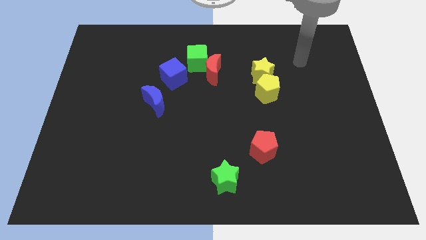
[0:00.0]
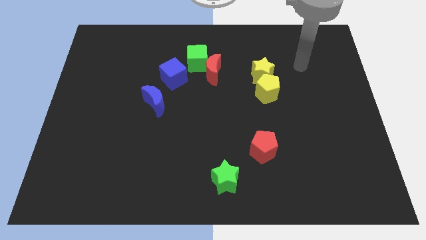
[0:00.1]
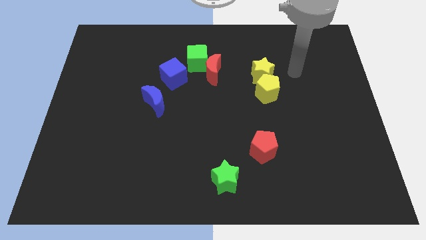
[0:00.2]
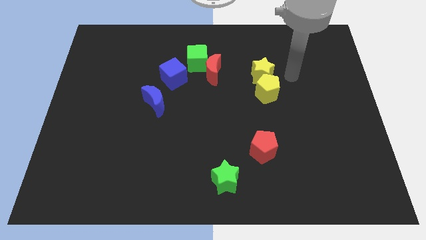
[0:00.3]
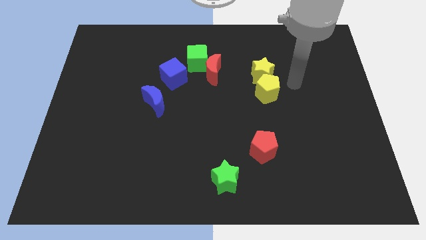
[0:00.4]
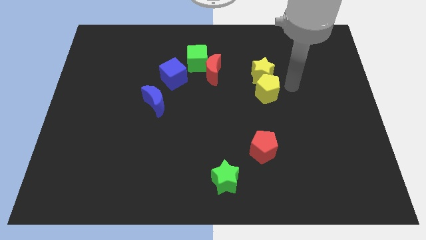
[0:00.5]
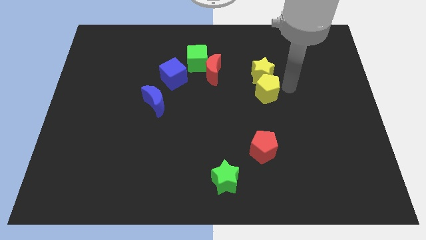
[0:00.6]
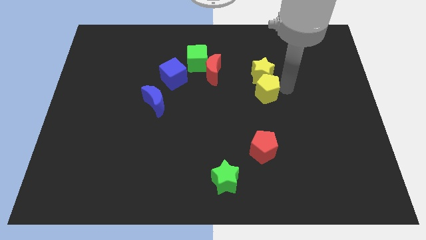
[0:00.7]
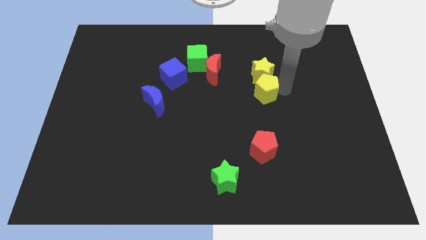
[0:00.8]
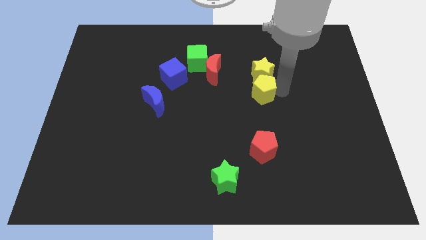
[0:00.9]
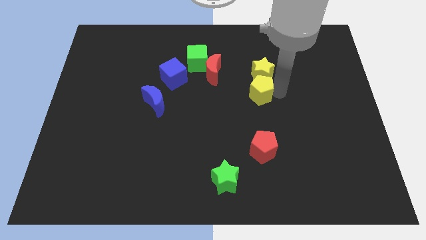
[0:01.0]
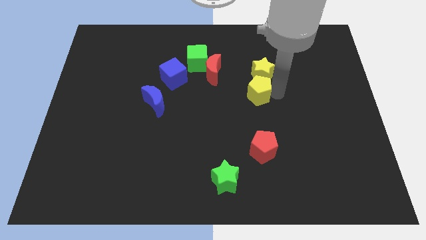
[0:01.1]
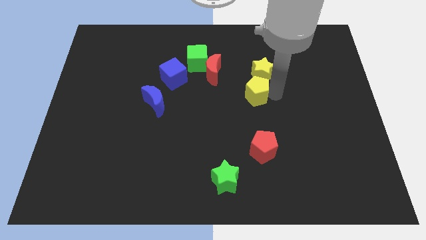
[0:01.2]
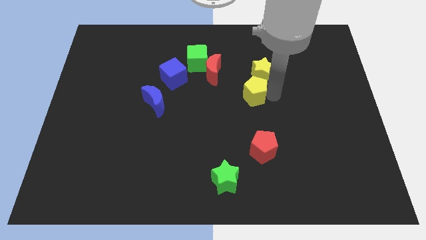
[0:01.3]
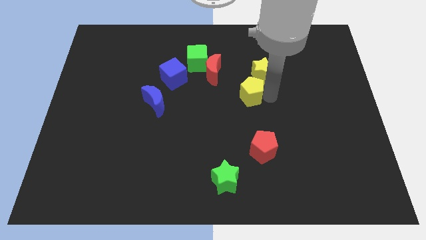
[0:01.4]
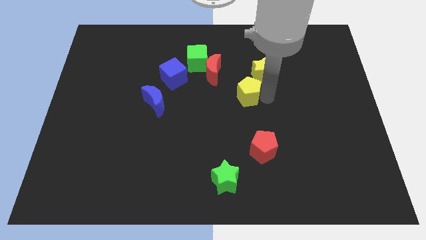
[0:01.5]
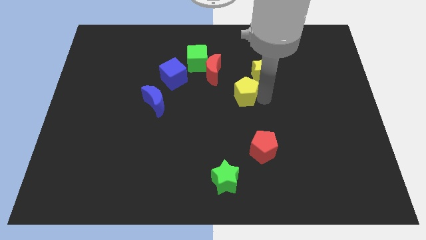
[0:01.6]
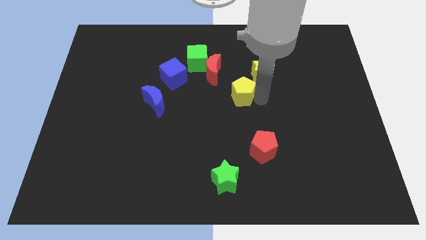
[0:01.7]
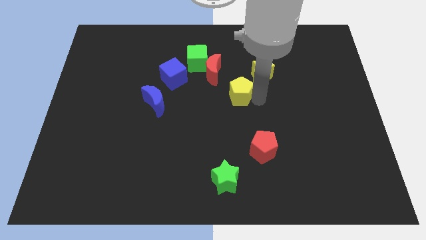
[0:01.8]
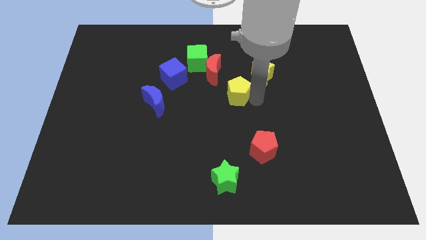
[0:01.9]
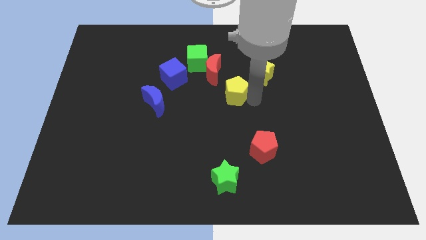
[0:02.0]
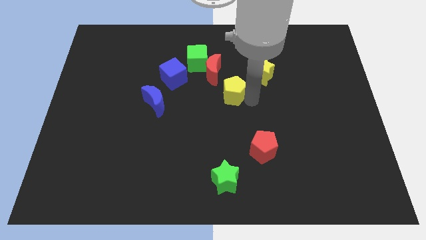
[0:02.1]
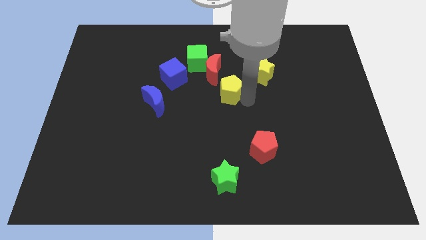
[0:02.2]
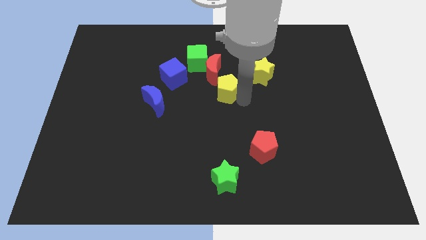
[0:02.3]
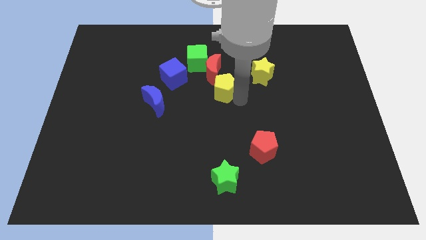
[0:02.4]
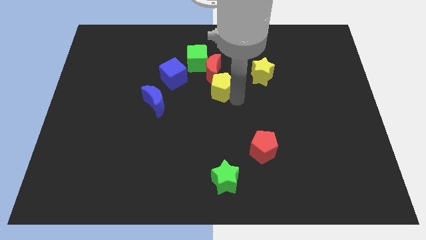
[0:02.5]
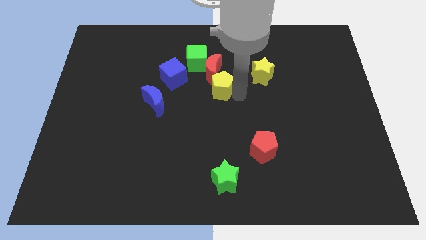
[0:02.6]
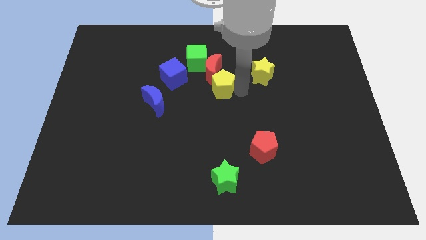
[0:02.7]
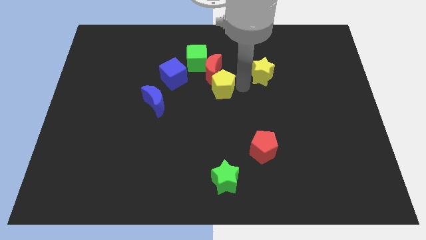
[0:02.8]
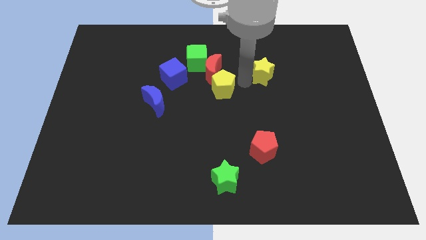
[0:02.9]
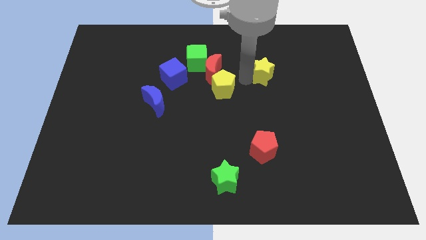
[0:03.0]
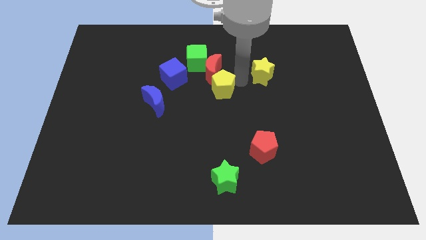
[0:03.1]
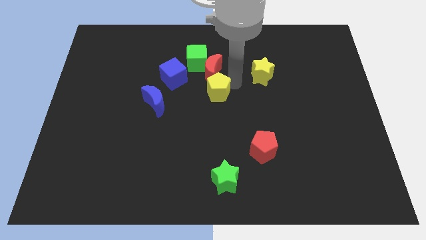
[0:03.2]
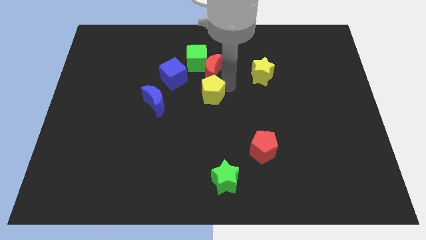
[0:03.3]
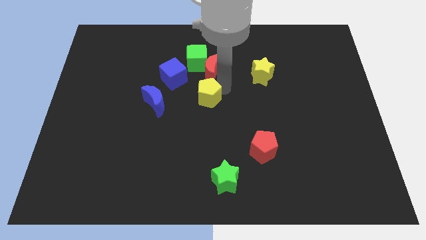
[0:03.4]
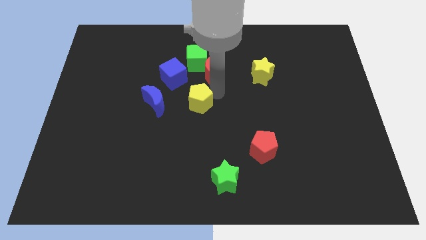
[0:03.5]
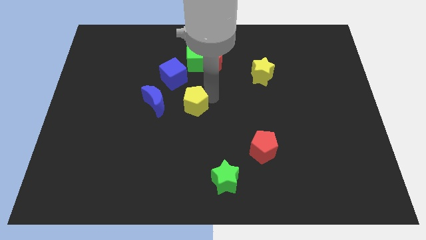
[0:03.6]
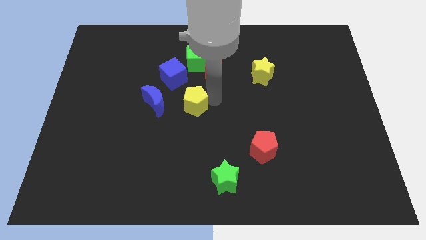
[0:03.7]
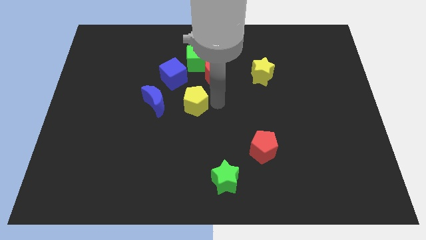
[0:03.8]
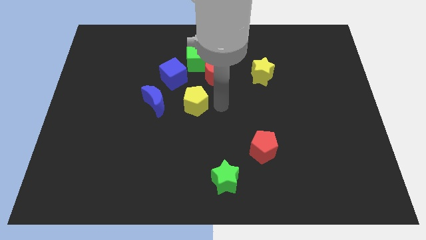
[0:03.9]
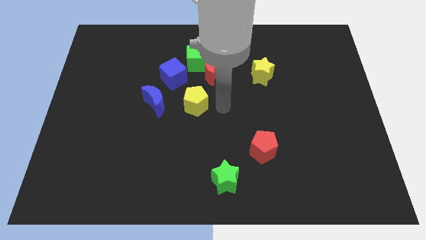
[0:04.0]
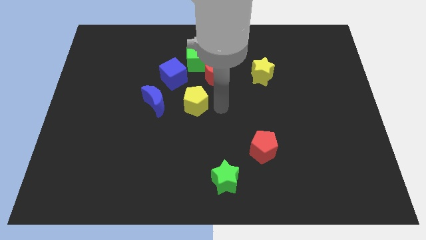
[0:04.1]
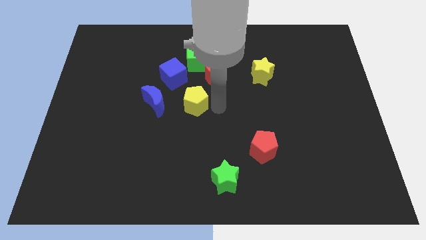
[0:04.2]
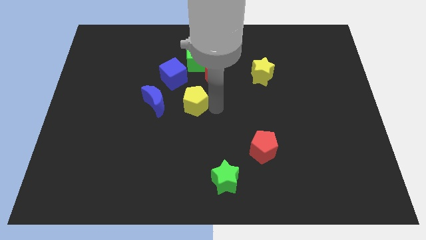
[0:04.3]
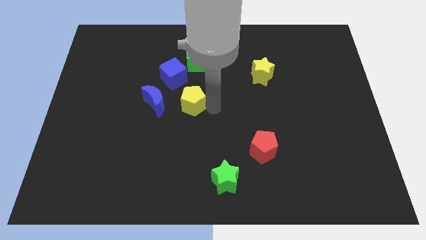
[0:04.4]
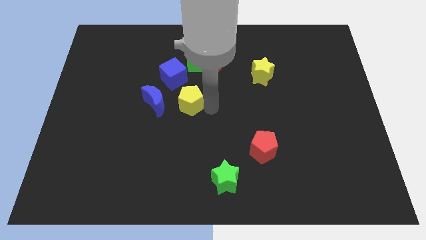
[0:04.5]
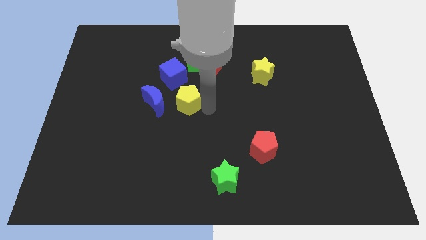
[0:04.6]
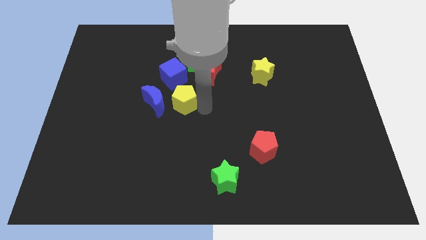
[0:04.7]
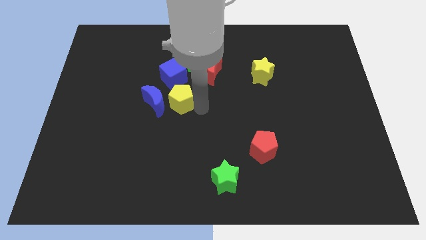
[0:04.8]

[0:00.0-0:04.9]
push the yellow pentagon towards the blue moon

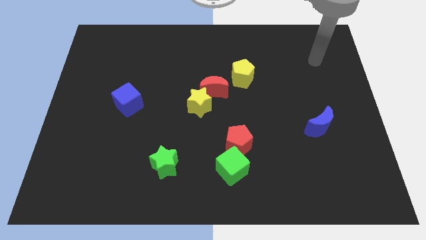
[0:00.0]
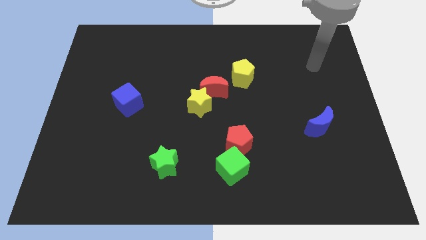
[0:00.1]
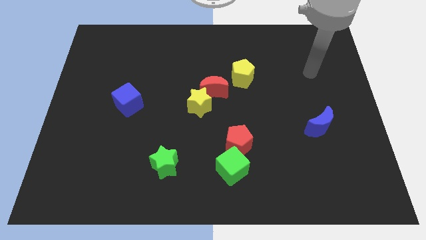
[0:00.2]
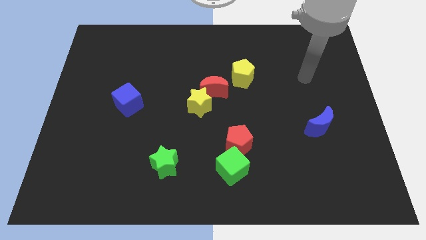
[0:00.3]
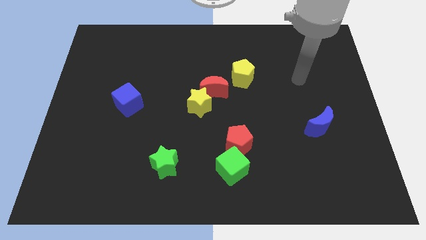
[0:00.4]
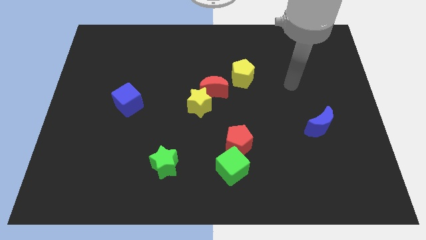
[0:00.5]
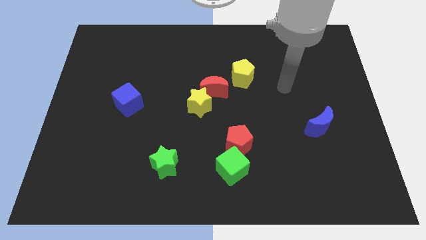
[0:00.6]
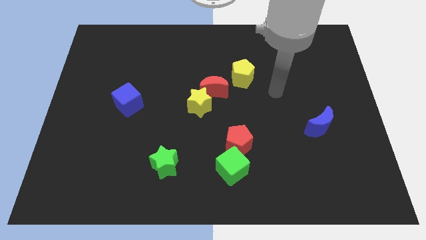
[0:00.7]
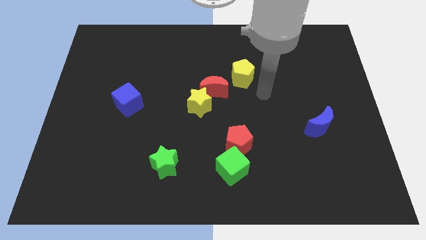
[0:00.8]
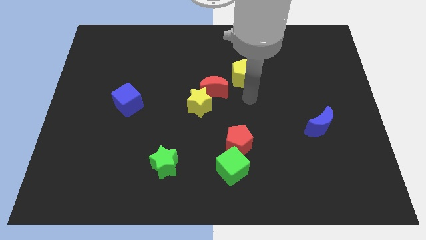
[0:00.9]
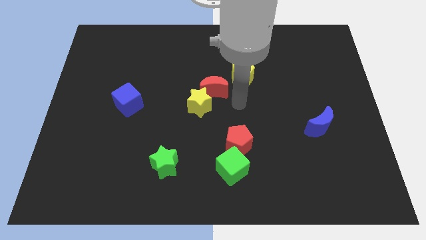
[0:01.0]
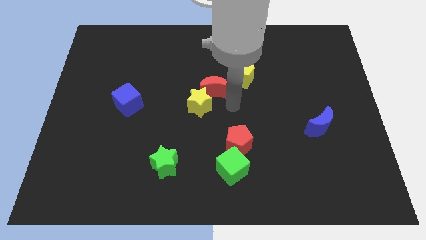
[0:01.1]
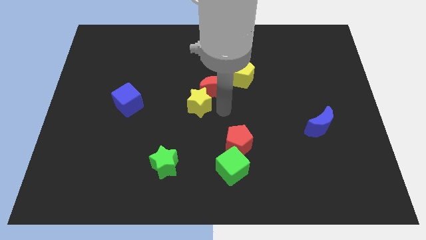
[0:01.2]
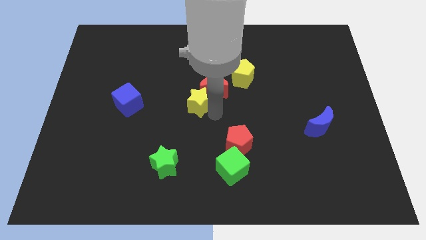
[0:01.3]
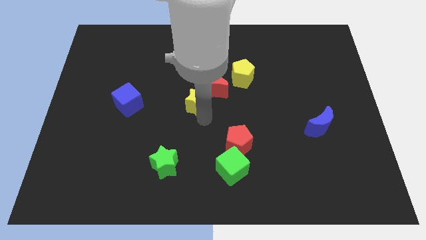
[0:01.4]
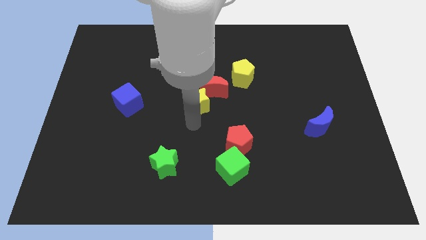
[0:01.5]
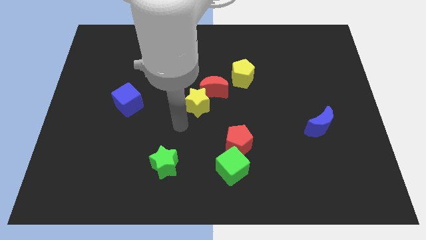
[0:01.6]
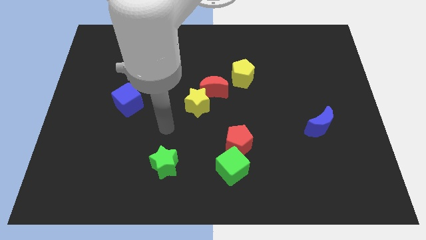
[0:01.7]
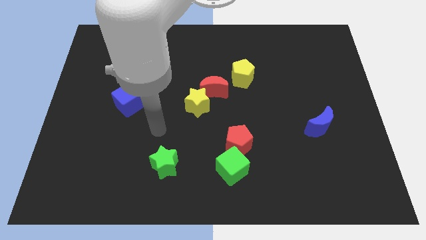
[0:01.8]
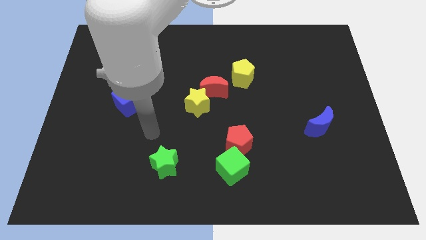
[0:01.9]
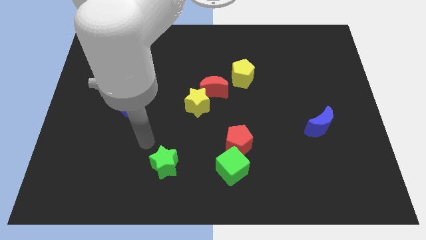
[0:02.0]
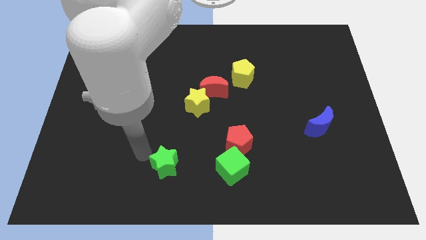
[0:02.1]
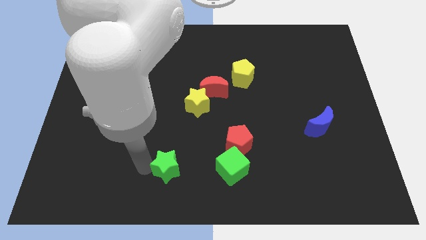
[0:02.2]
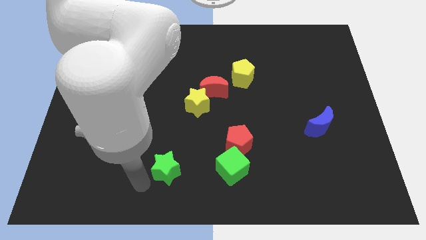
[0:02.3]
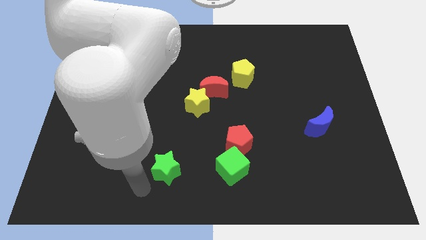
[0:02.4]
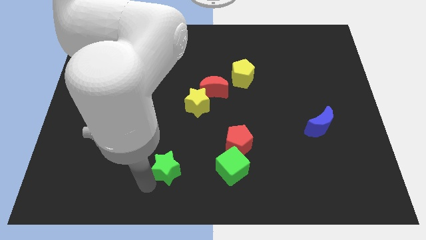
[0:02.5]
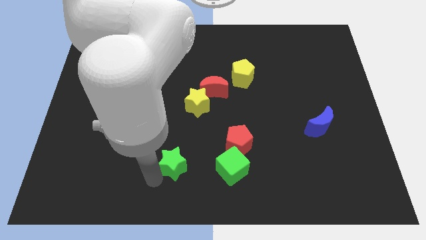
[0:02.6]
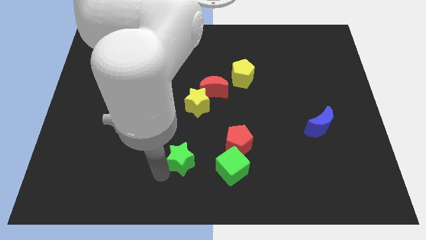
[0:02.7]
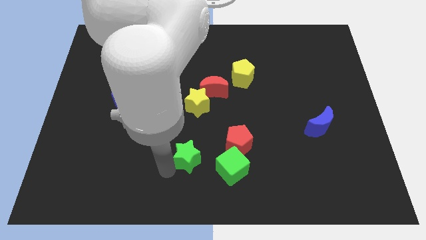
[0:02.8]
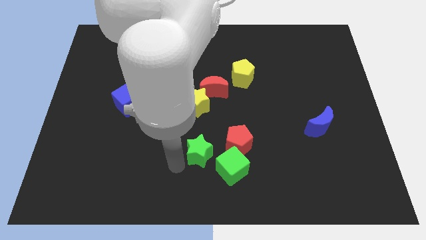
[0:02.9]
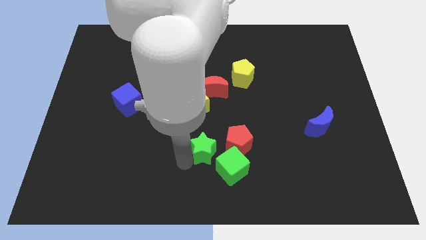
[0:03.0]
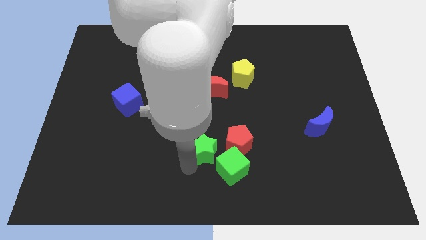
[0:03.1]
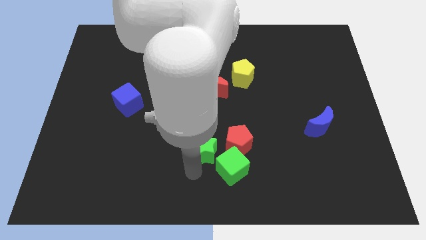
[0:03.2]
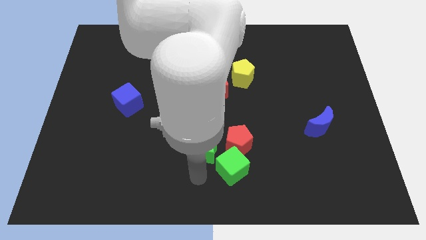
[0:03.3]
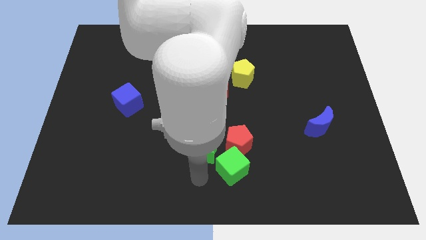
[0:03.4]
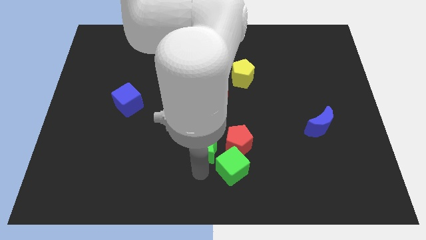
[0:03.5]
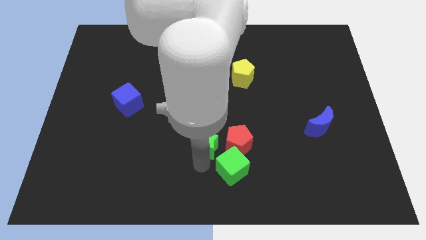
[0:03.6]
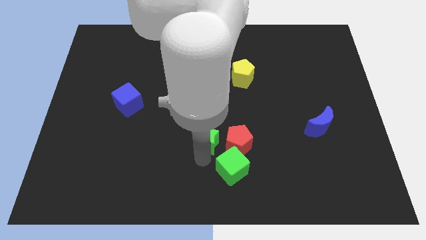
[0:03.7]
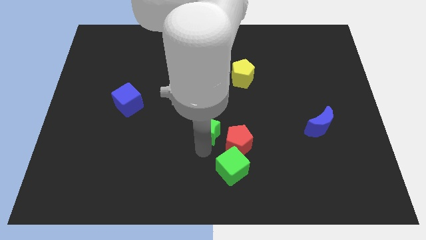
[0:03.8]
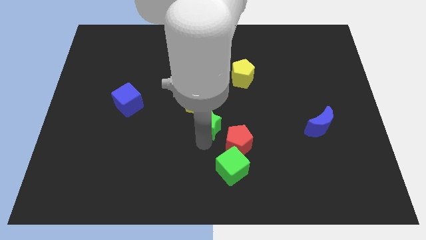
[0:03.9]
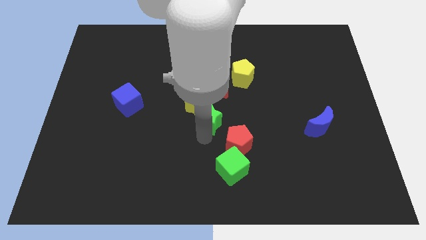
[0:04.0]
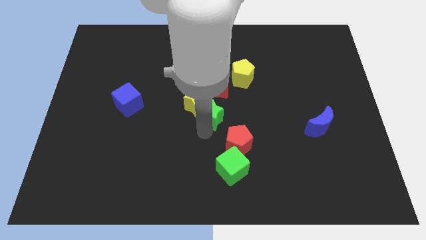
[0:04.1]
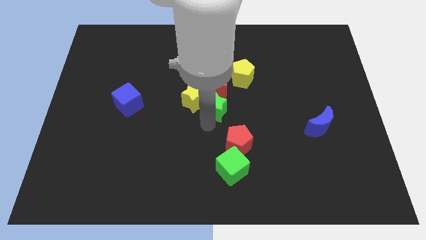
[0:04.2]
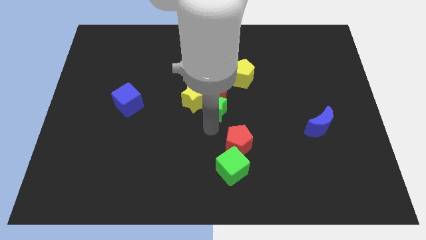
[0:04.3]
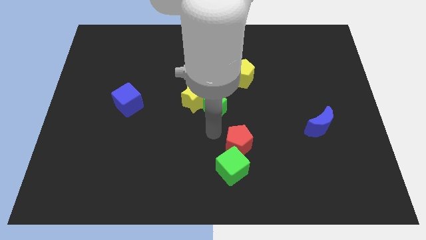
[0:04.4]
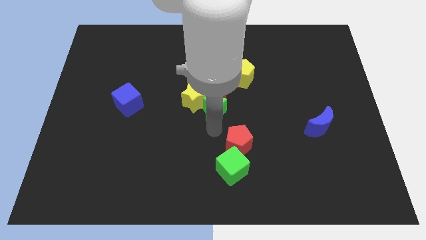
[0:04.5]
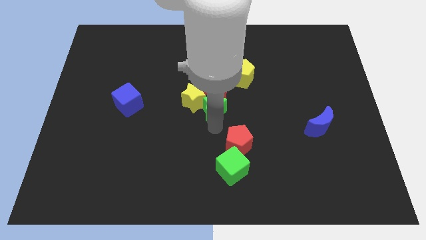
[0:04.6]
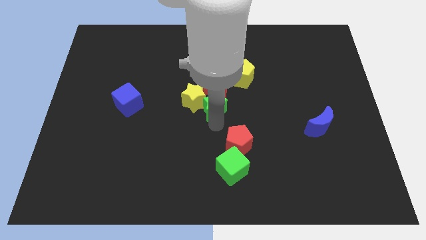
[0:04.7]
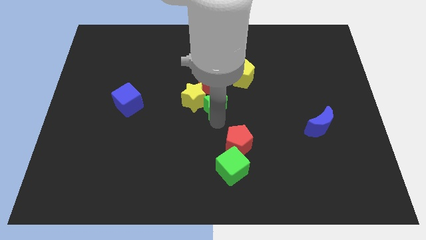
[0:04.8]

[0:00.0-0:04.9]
put the green star close to the red moon
